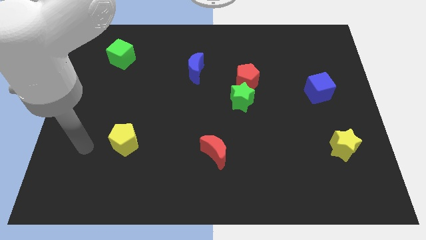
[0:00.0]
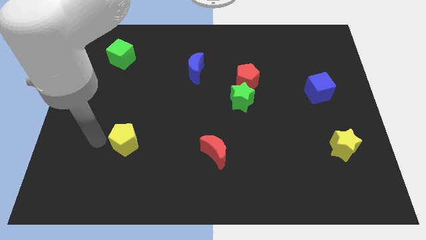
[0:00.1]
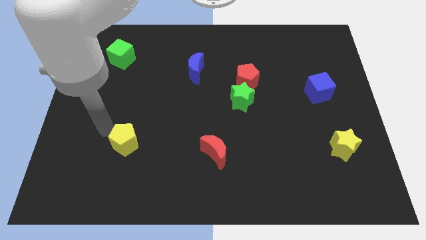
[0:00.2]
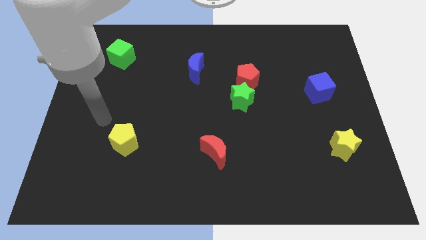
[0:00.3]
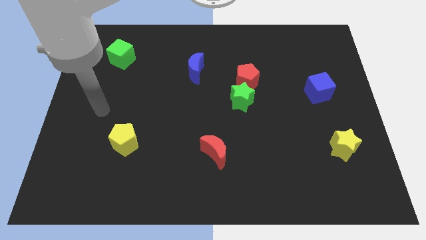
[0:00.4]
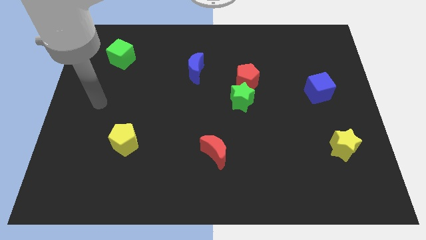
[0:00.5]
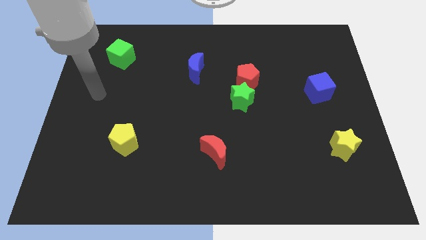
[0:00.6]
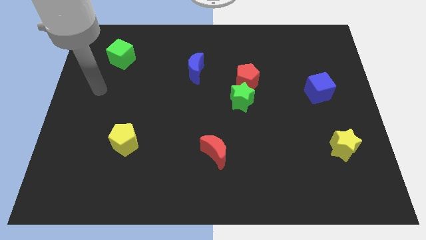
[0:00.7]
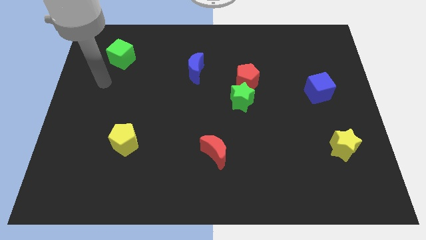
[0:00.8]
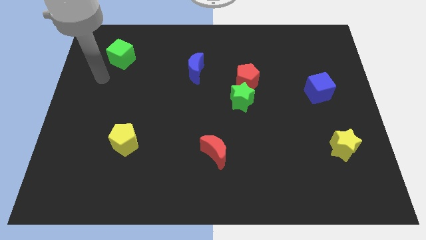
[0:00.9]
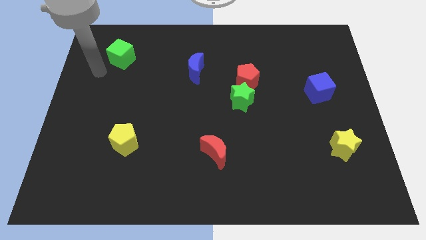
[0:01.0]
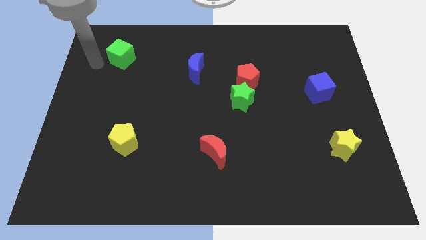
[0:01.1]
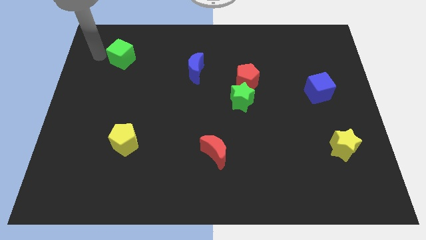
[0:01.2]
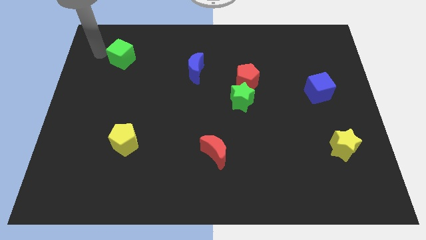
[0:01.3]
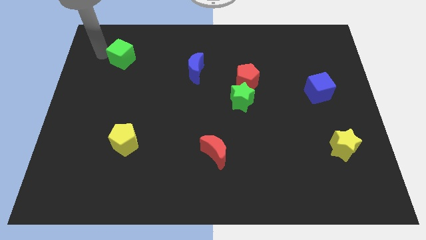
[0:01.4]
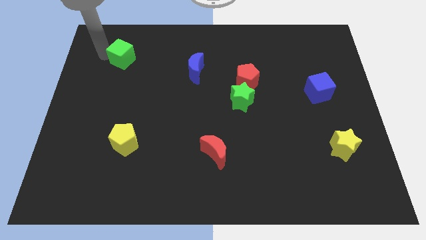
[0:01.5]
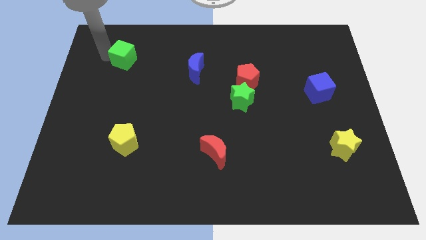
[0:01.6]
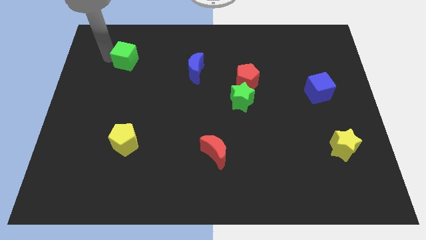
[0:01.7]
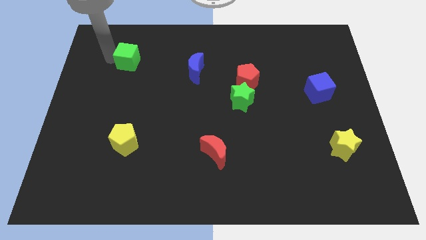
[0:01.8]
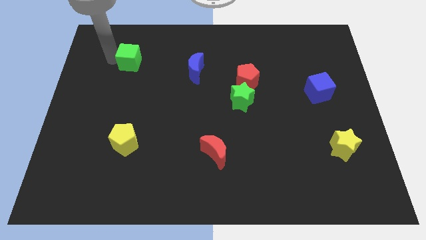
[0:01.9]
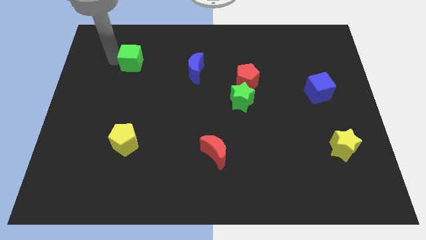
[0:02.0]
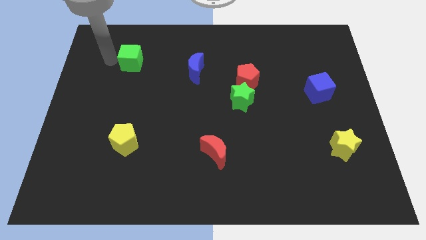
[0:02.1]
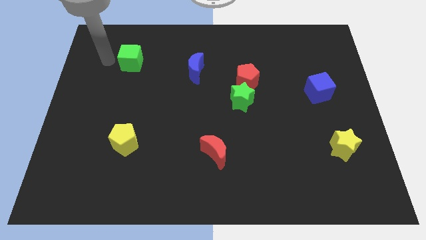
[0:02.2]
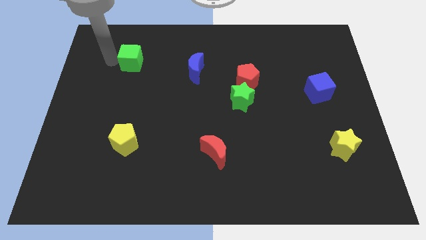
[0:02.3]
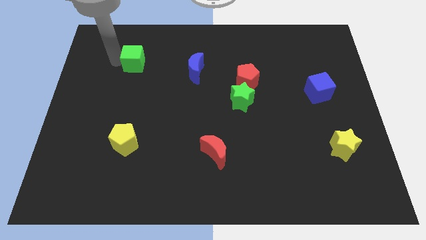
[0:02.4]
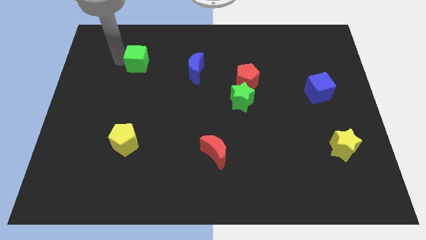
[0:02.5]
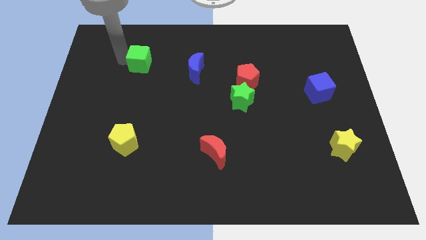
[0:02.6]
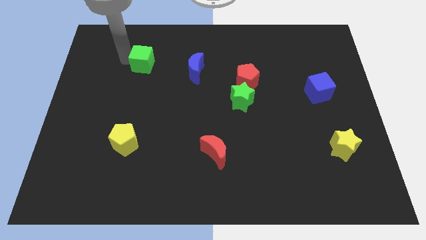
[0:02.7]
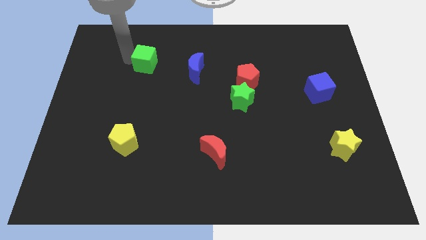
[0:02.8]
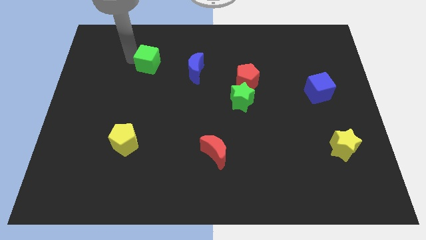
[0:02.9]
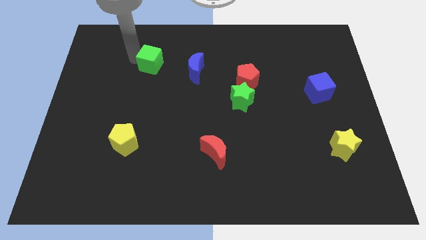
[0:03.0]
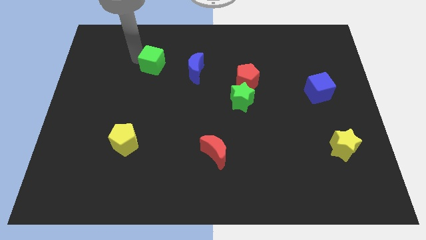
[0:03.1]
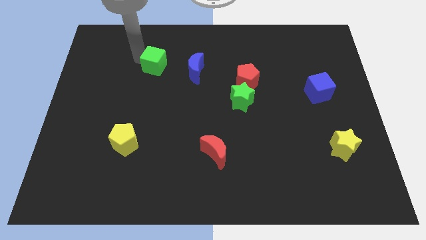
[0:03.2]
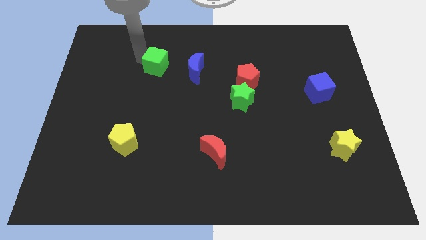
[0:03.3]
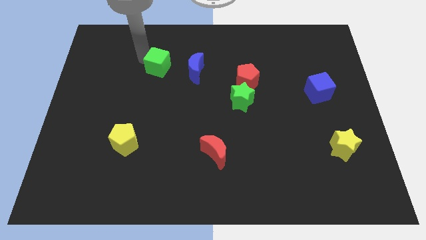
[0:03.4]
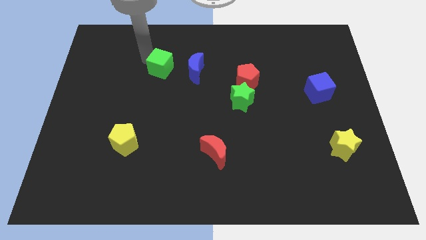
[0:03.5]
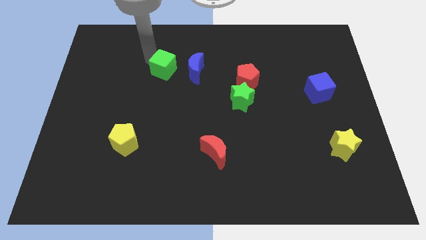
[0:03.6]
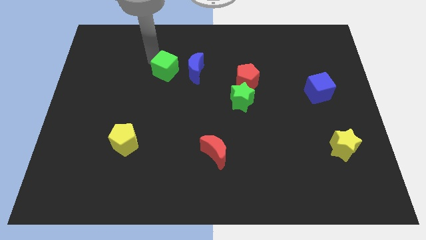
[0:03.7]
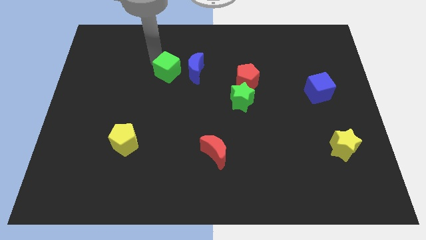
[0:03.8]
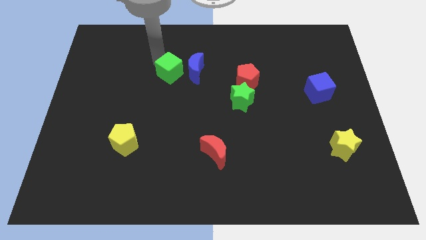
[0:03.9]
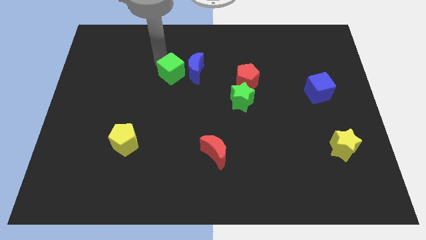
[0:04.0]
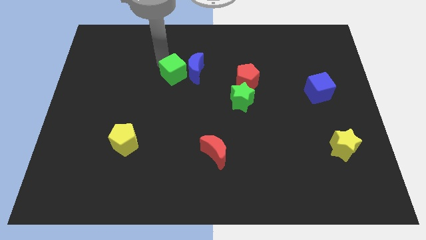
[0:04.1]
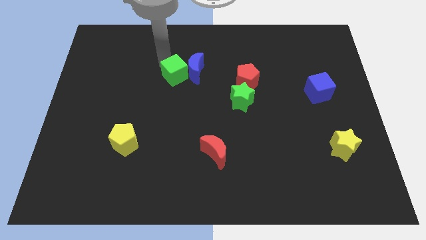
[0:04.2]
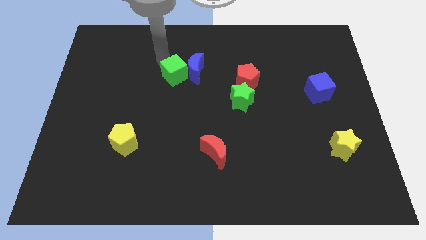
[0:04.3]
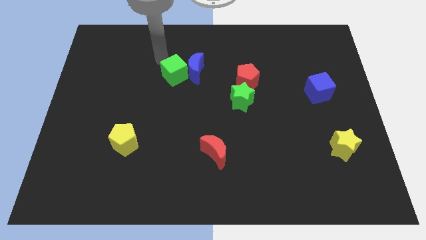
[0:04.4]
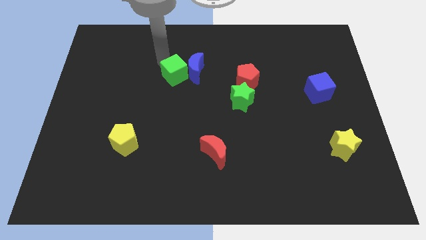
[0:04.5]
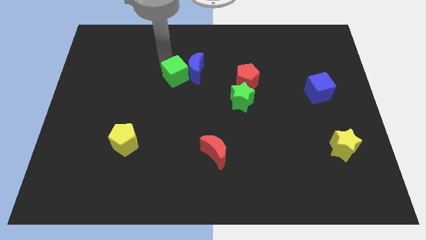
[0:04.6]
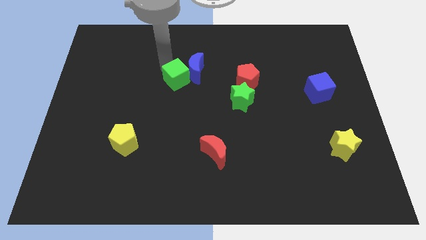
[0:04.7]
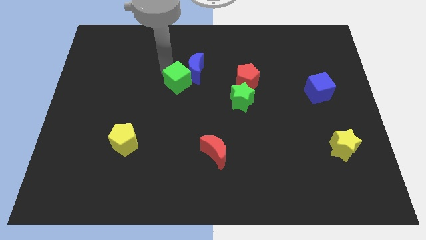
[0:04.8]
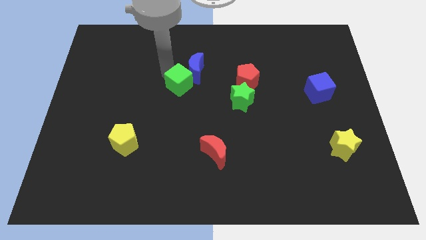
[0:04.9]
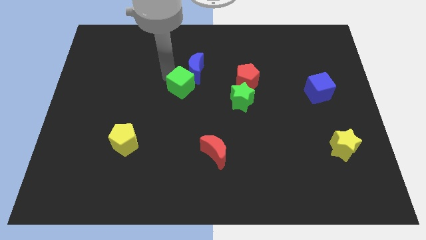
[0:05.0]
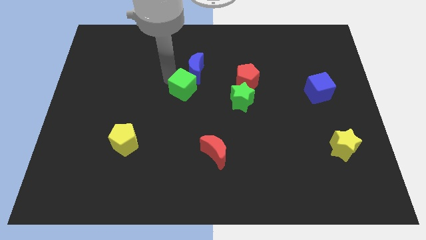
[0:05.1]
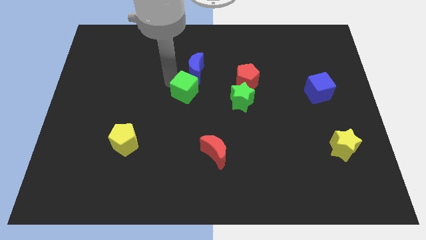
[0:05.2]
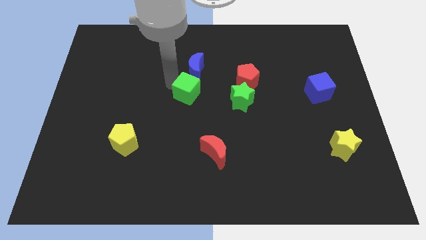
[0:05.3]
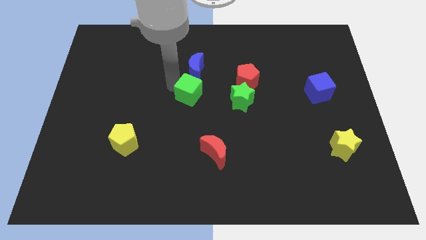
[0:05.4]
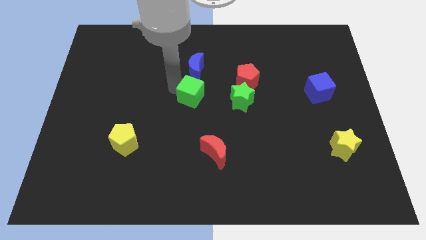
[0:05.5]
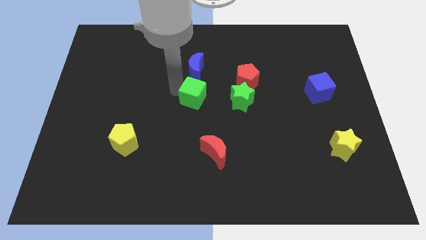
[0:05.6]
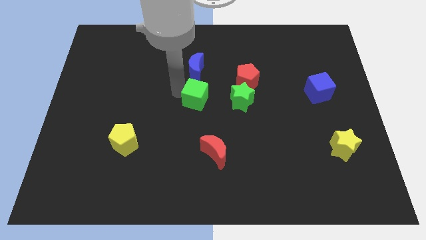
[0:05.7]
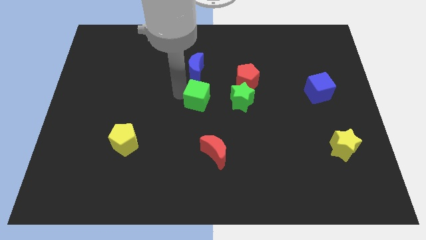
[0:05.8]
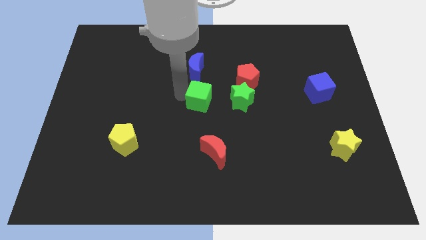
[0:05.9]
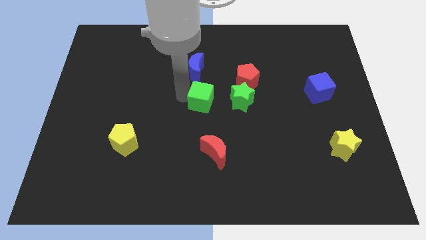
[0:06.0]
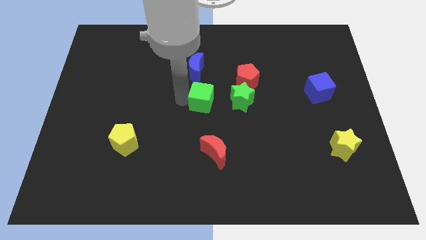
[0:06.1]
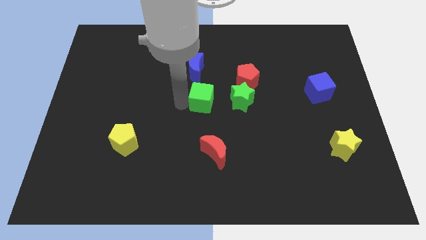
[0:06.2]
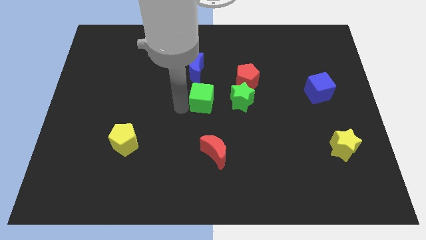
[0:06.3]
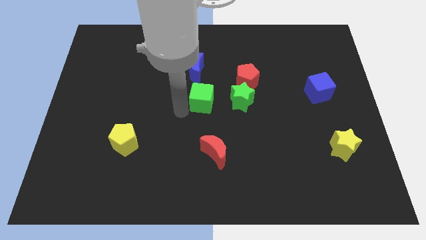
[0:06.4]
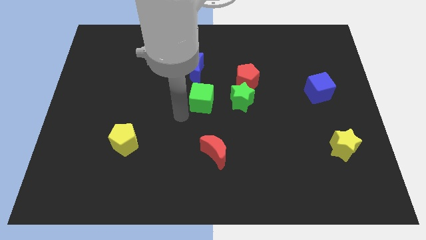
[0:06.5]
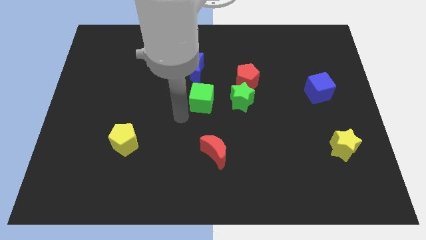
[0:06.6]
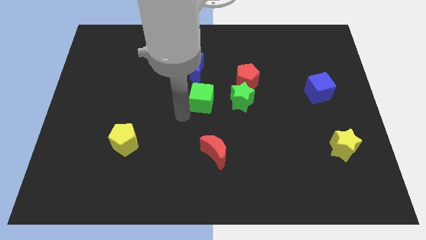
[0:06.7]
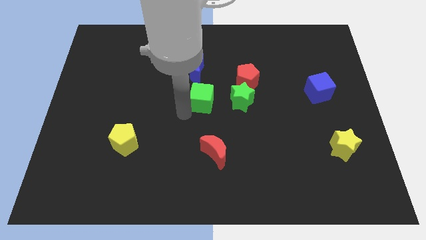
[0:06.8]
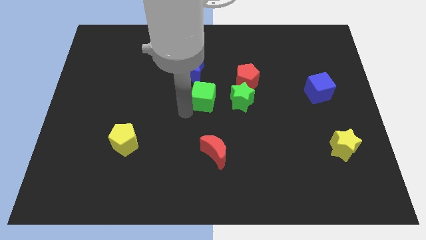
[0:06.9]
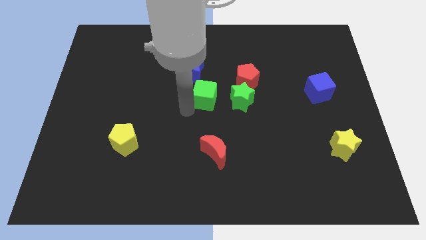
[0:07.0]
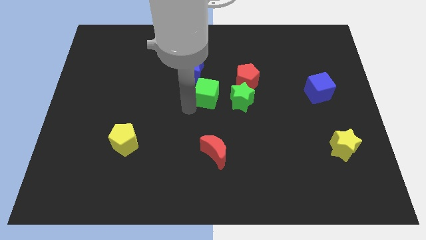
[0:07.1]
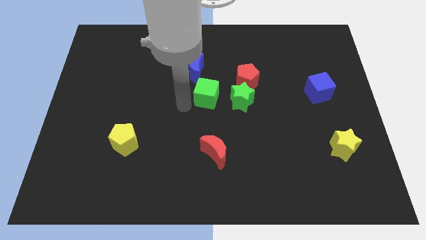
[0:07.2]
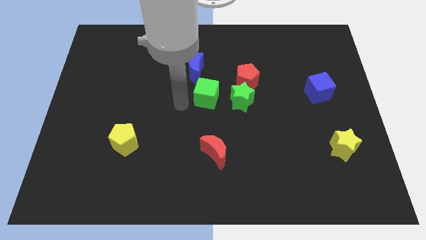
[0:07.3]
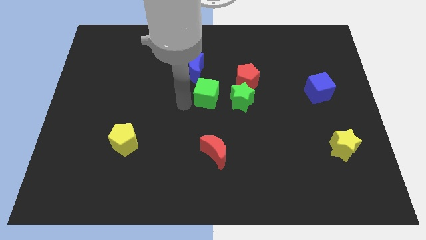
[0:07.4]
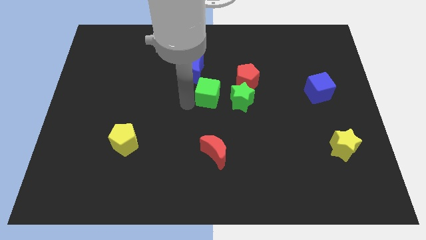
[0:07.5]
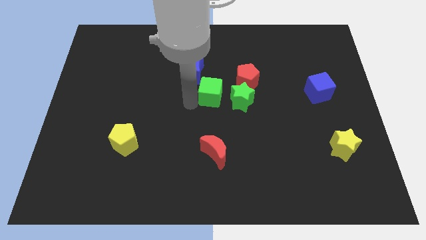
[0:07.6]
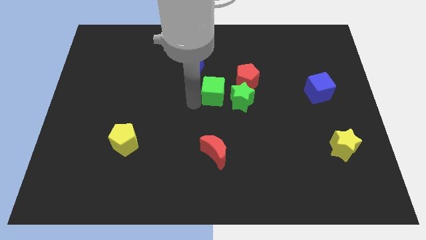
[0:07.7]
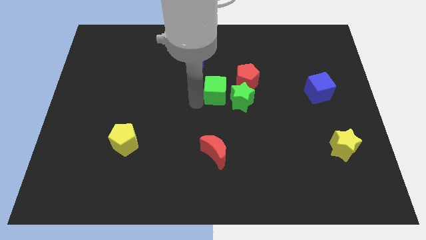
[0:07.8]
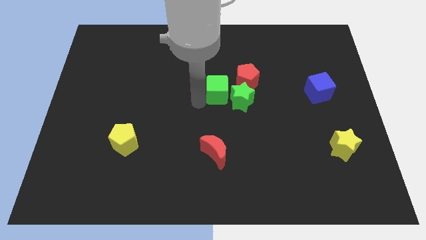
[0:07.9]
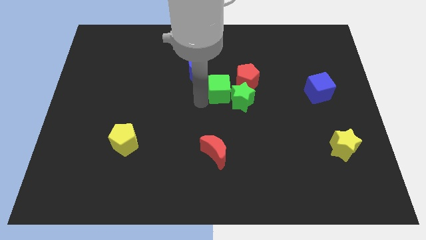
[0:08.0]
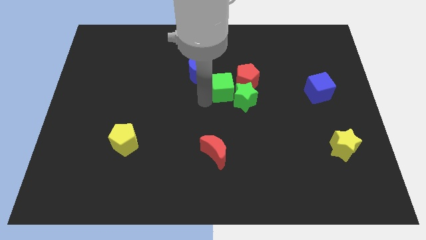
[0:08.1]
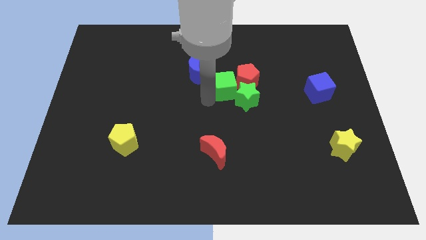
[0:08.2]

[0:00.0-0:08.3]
move the green cube to the red pentagon
